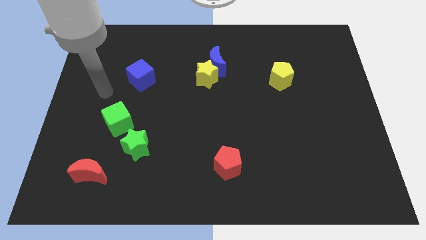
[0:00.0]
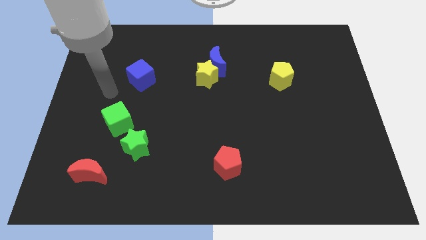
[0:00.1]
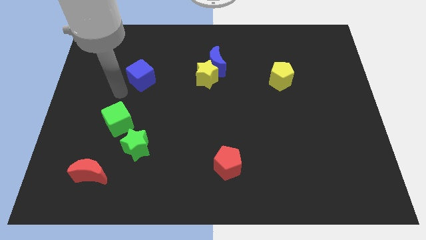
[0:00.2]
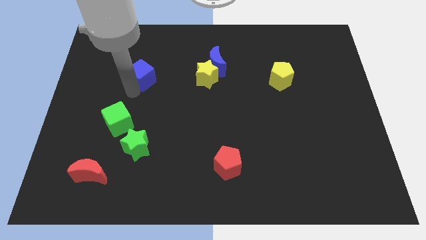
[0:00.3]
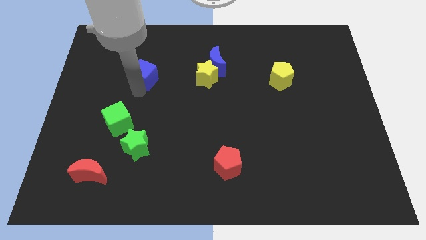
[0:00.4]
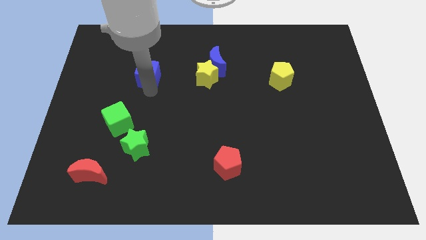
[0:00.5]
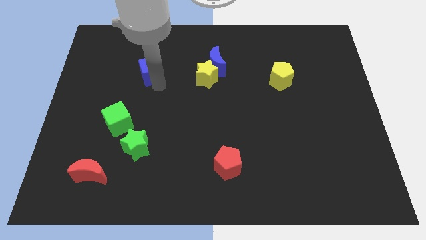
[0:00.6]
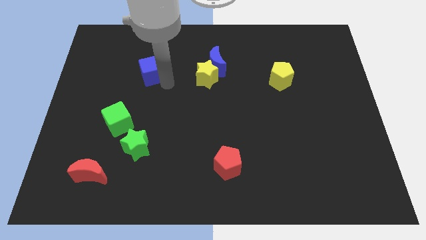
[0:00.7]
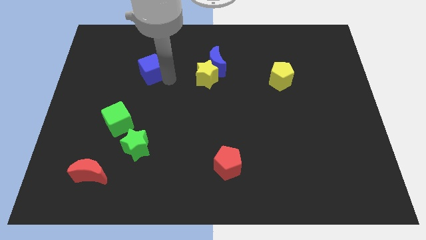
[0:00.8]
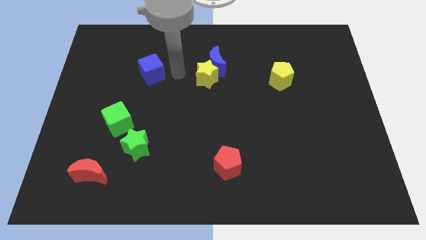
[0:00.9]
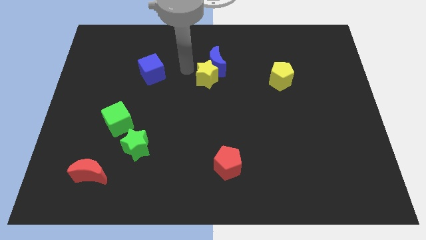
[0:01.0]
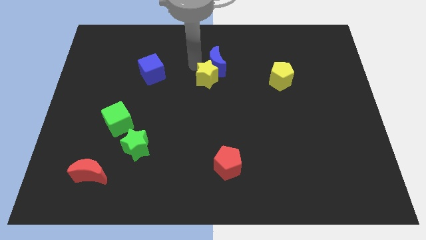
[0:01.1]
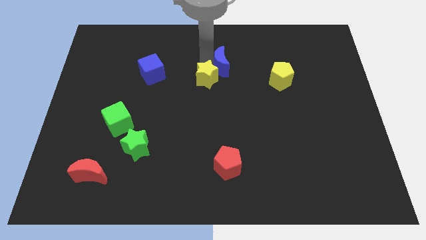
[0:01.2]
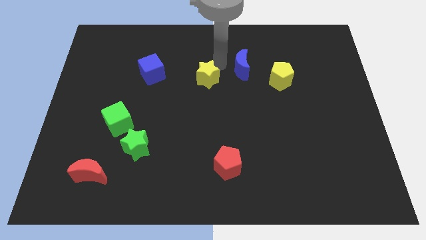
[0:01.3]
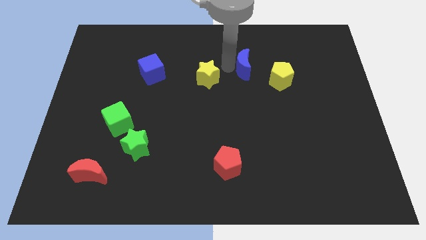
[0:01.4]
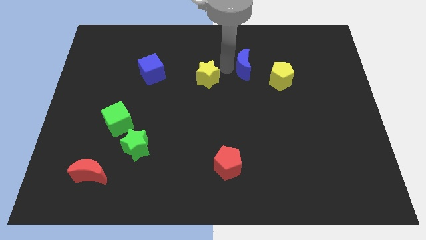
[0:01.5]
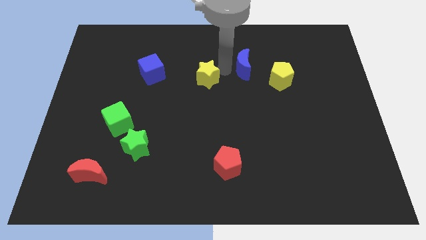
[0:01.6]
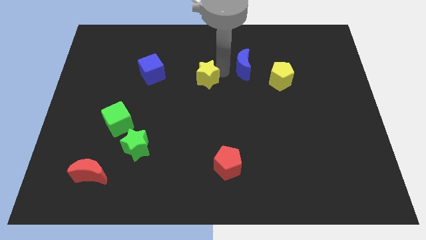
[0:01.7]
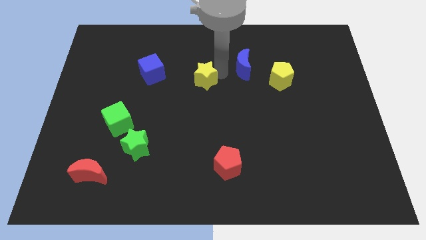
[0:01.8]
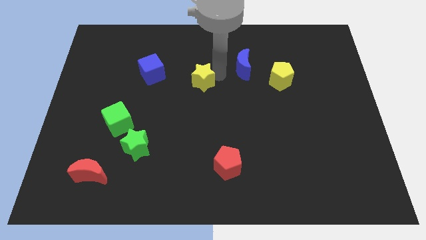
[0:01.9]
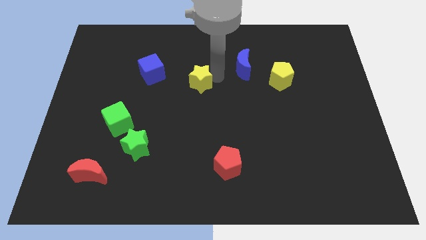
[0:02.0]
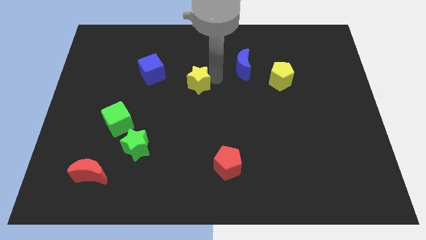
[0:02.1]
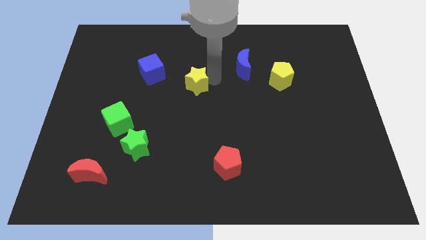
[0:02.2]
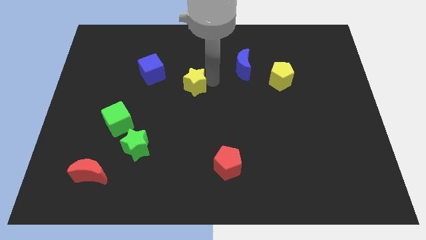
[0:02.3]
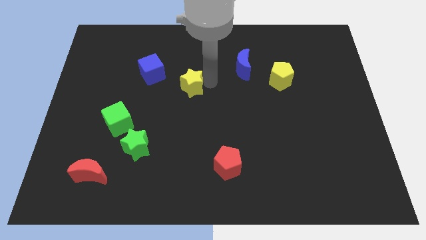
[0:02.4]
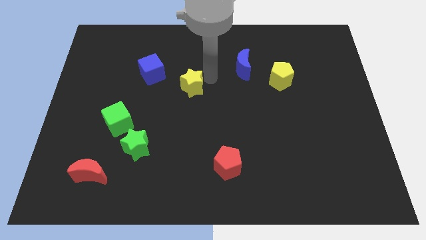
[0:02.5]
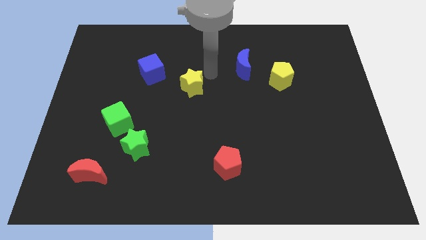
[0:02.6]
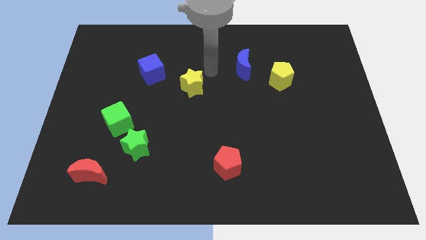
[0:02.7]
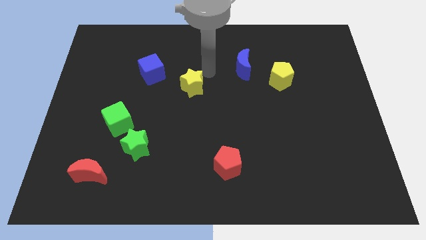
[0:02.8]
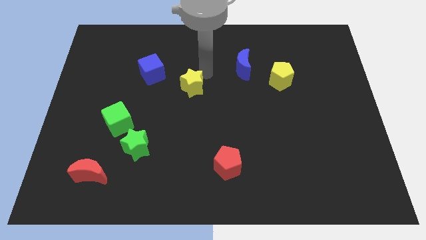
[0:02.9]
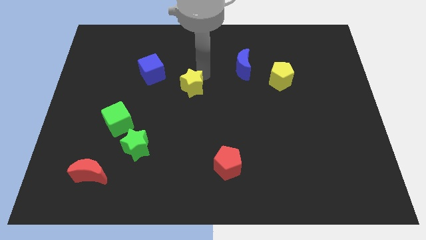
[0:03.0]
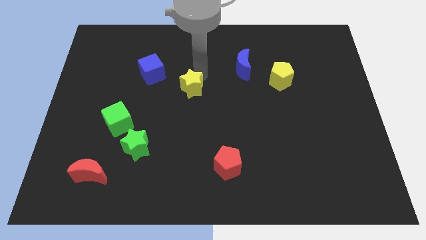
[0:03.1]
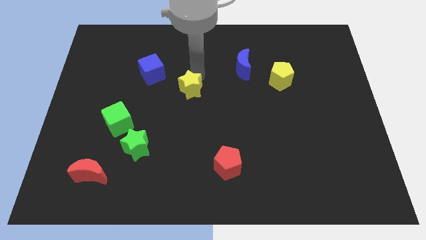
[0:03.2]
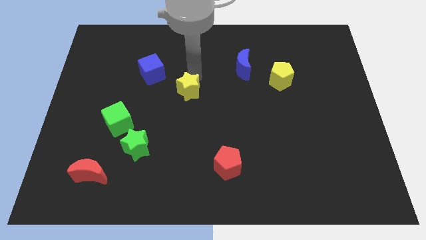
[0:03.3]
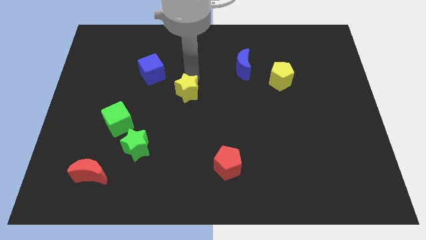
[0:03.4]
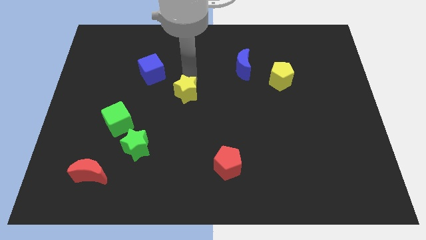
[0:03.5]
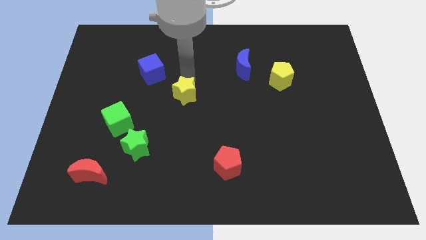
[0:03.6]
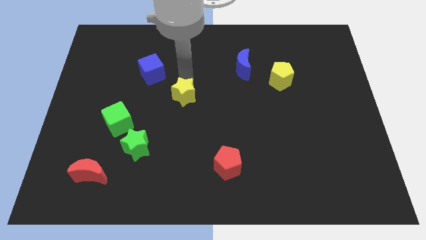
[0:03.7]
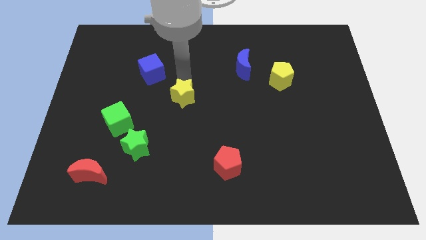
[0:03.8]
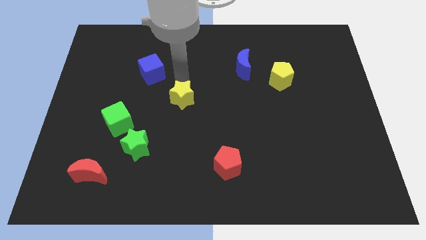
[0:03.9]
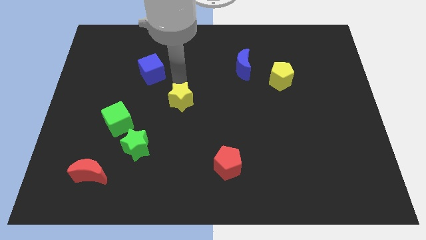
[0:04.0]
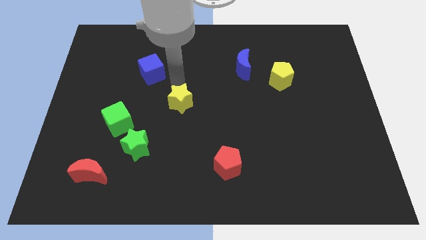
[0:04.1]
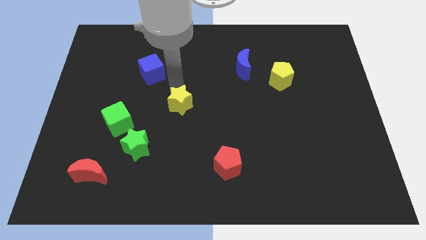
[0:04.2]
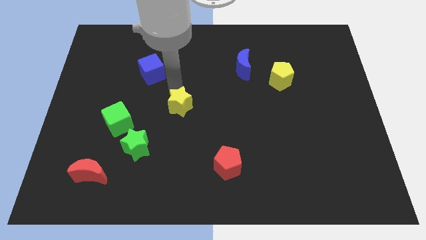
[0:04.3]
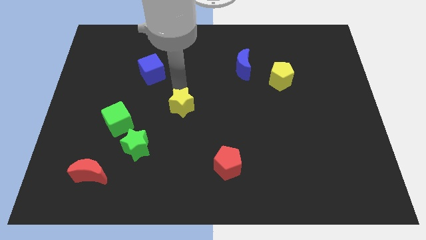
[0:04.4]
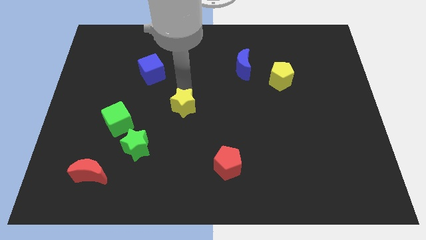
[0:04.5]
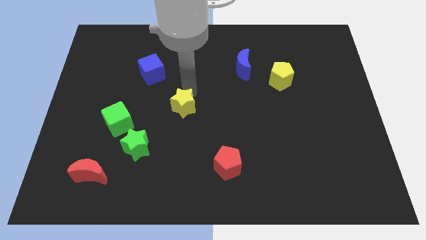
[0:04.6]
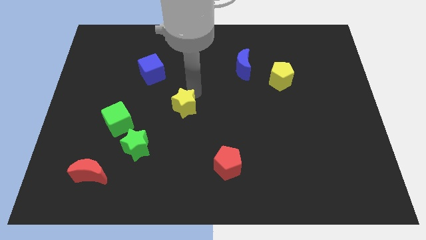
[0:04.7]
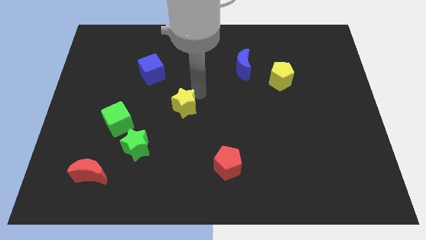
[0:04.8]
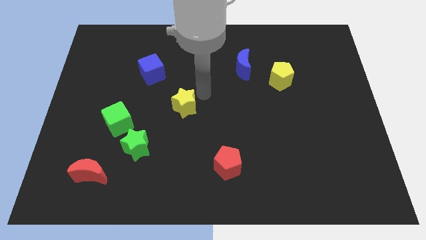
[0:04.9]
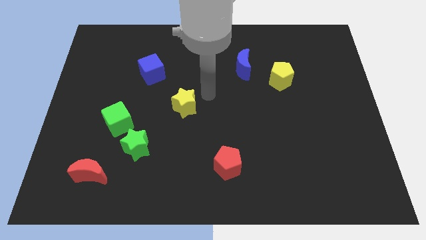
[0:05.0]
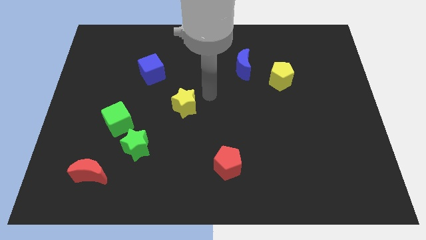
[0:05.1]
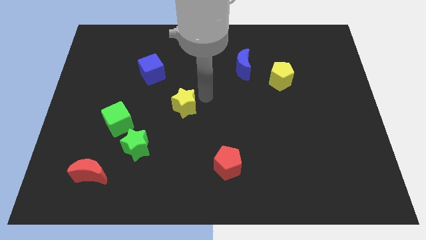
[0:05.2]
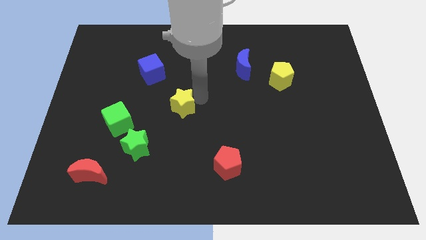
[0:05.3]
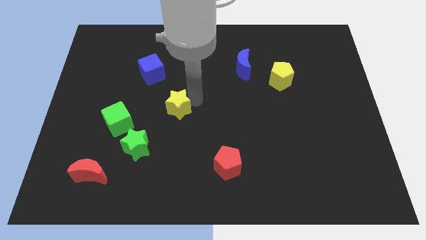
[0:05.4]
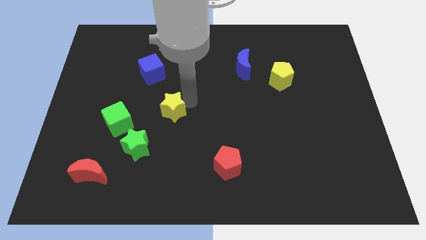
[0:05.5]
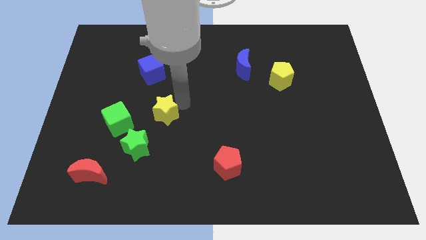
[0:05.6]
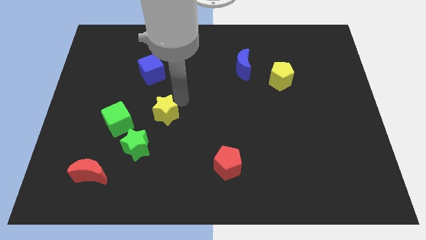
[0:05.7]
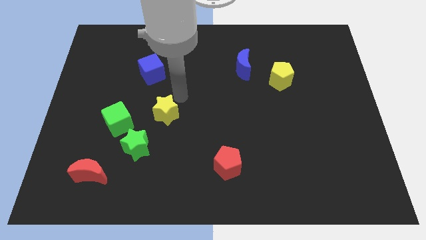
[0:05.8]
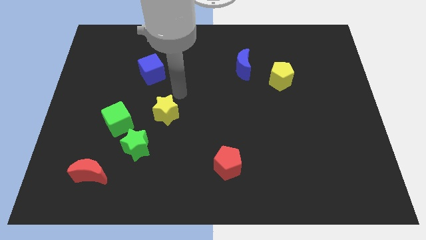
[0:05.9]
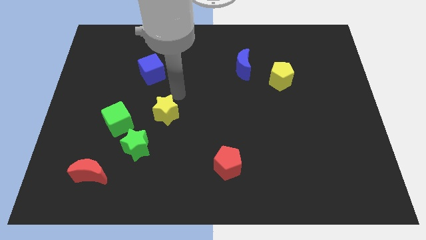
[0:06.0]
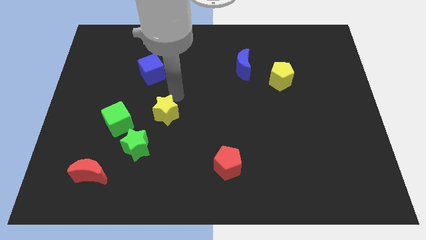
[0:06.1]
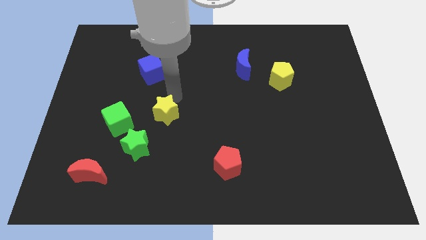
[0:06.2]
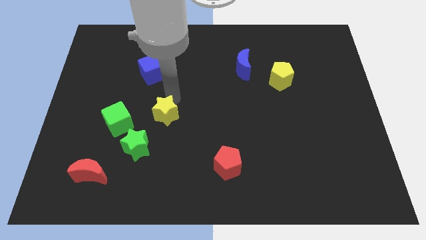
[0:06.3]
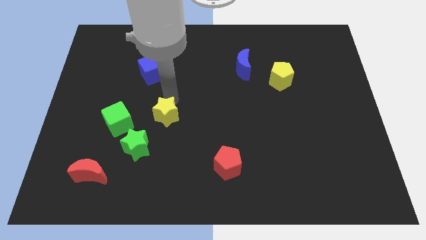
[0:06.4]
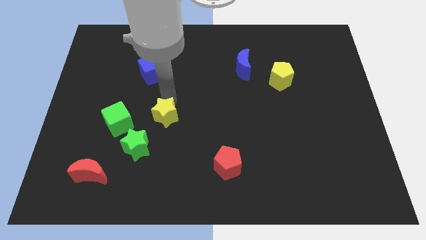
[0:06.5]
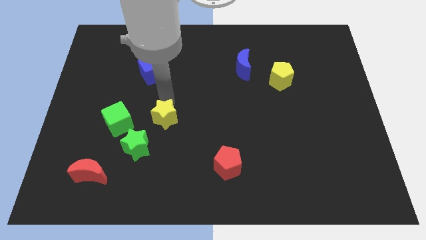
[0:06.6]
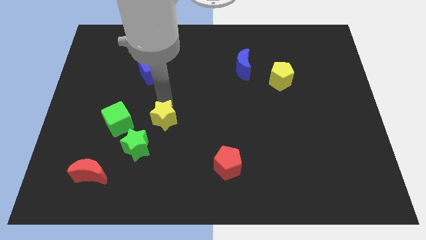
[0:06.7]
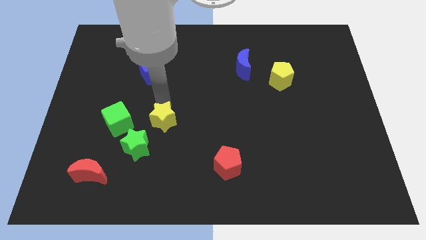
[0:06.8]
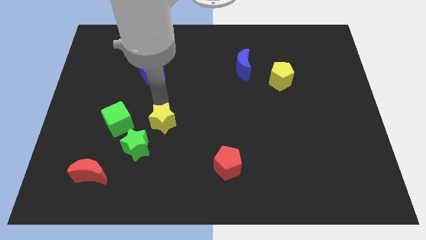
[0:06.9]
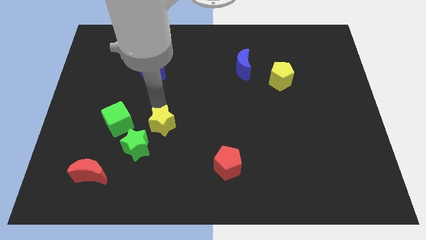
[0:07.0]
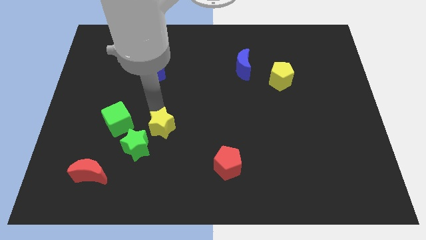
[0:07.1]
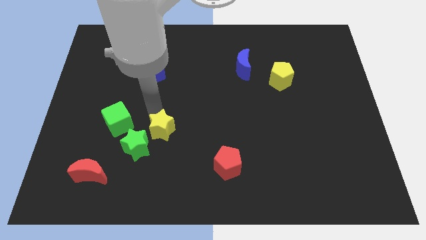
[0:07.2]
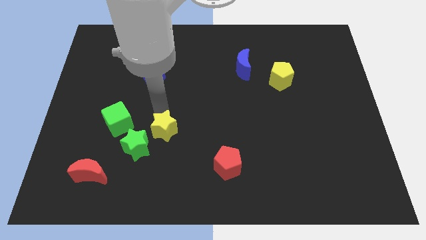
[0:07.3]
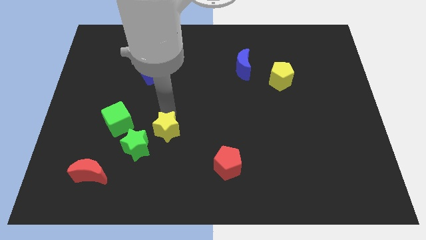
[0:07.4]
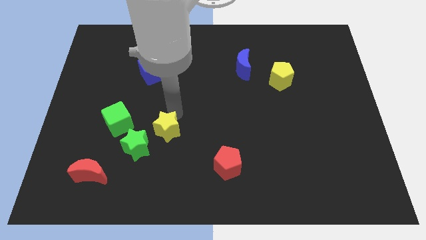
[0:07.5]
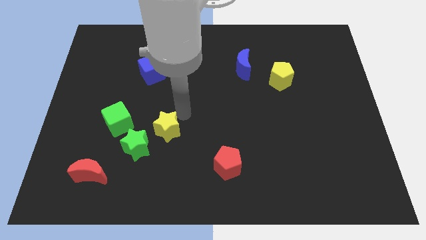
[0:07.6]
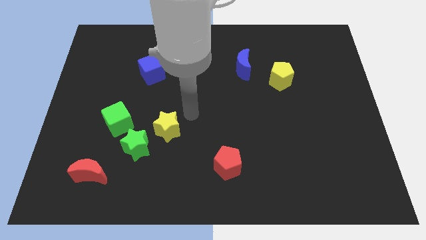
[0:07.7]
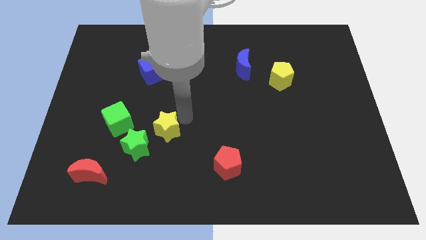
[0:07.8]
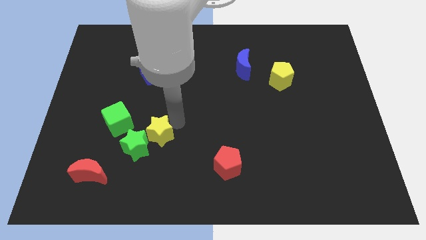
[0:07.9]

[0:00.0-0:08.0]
slide the yellow star next to the green star
